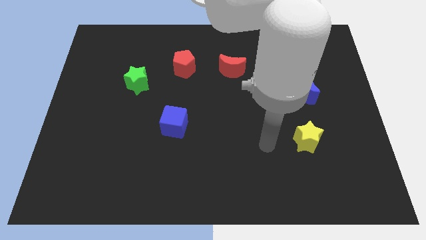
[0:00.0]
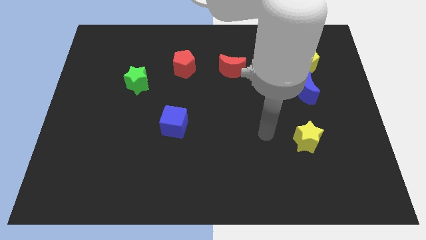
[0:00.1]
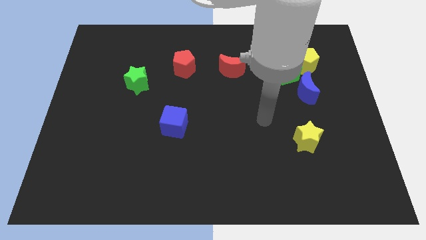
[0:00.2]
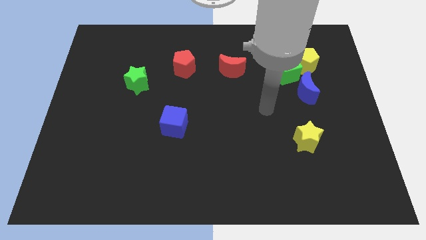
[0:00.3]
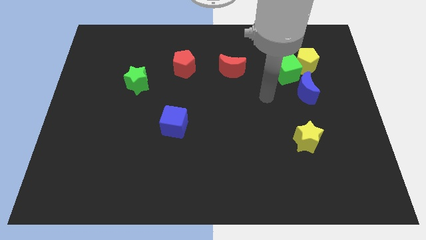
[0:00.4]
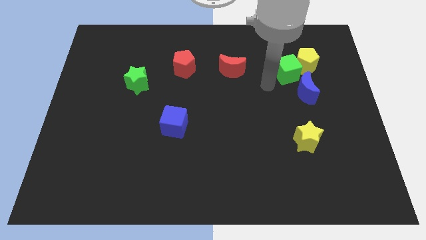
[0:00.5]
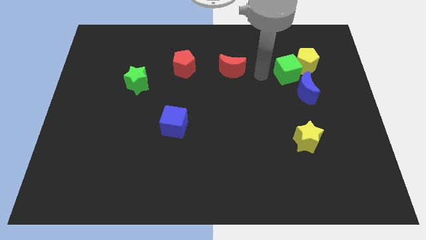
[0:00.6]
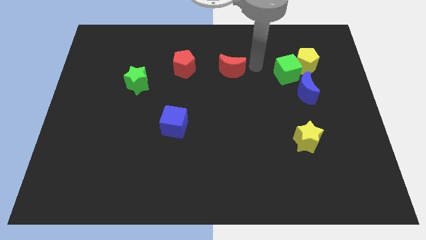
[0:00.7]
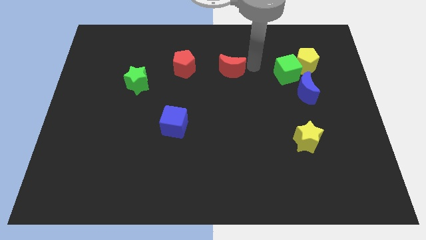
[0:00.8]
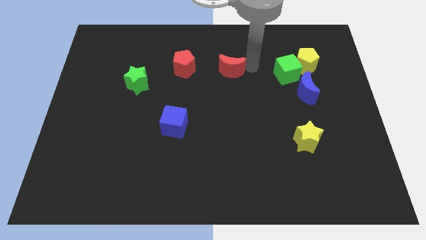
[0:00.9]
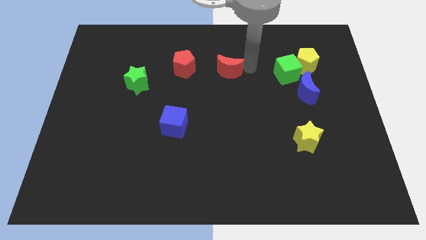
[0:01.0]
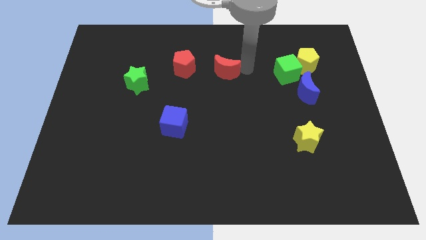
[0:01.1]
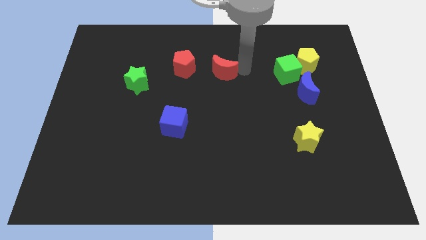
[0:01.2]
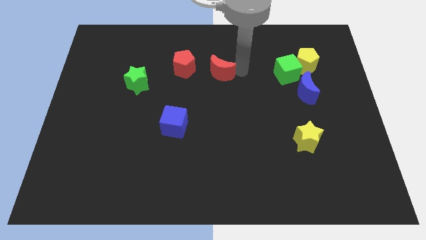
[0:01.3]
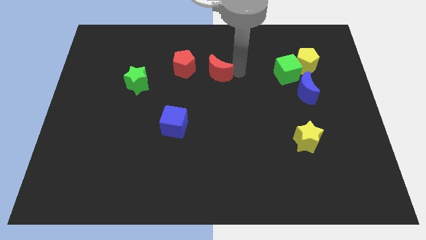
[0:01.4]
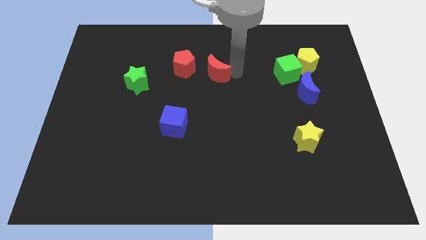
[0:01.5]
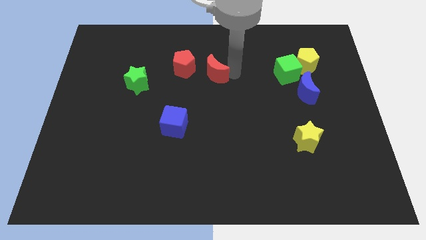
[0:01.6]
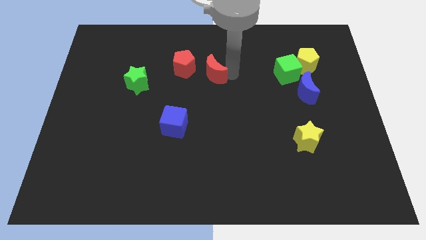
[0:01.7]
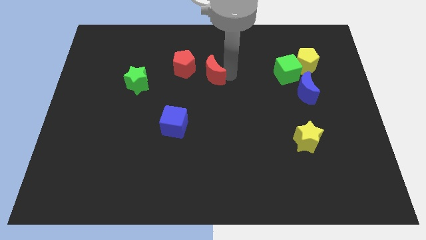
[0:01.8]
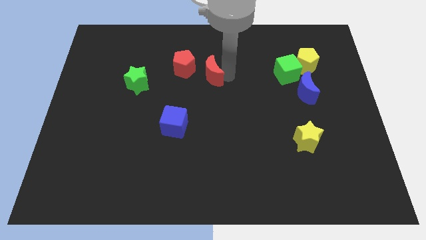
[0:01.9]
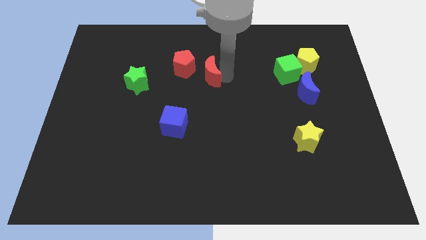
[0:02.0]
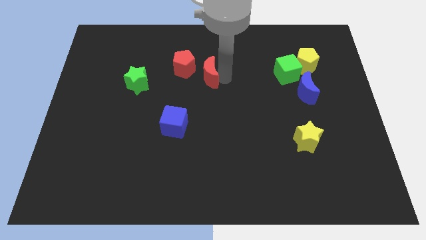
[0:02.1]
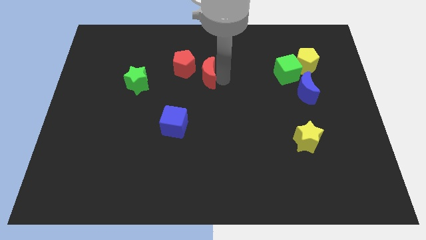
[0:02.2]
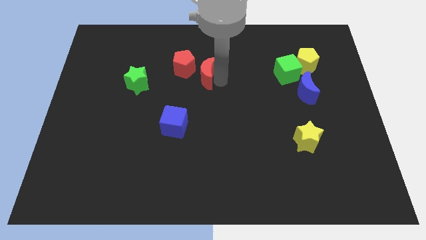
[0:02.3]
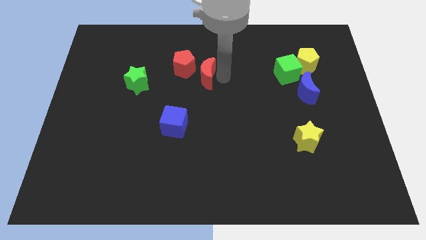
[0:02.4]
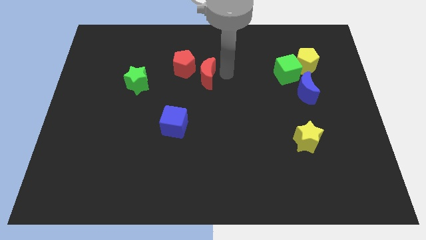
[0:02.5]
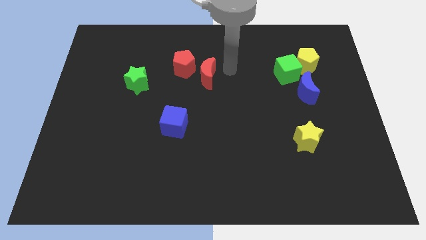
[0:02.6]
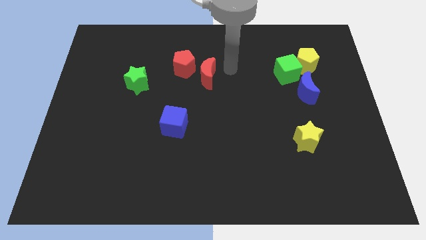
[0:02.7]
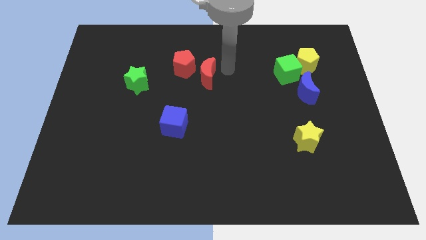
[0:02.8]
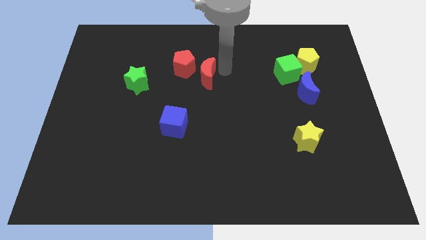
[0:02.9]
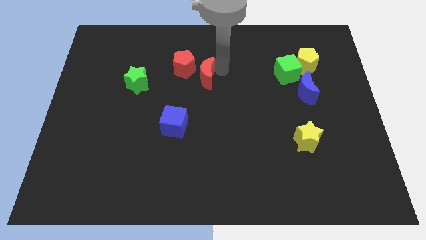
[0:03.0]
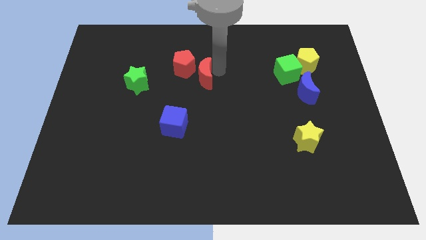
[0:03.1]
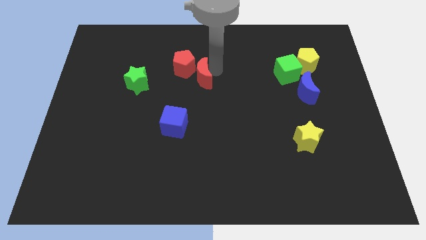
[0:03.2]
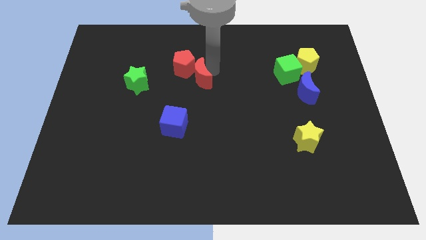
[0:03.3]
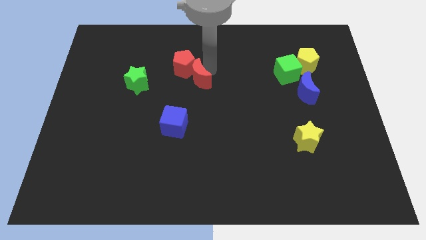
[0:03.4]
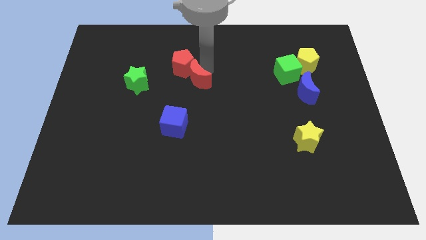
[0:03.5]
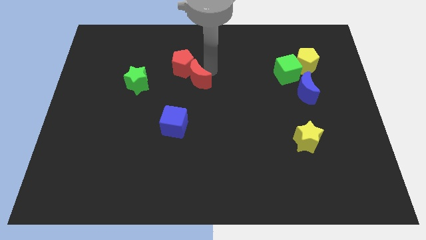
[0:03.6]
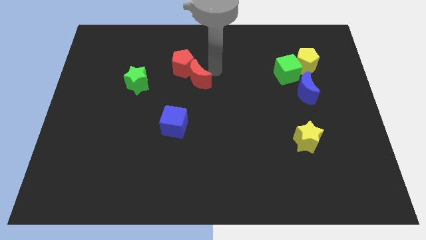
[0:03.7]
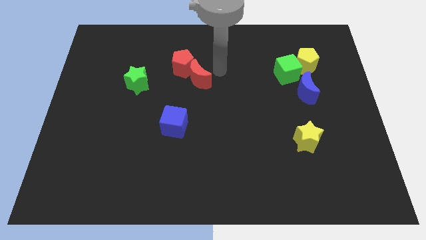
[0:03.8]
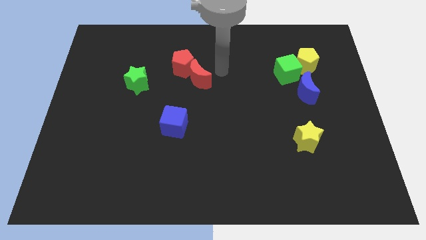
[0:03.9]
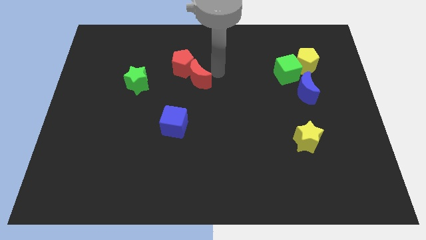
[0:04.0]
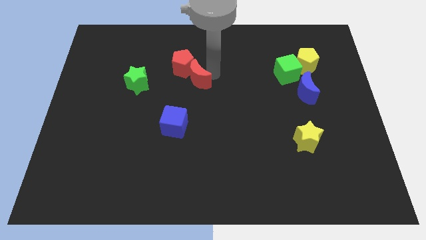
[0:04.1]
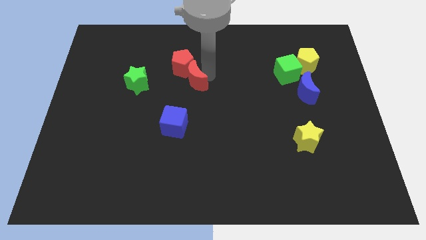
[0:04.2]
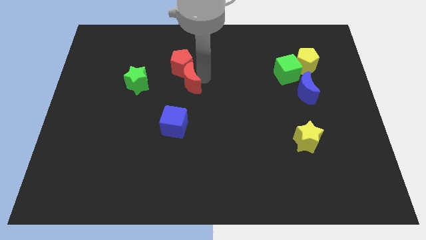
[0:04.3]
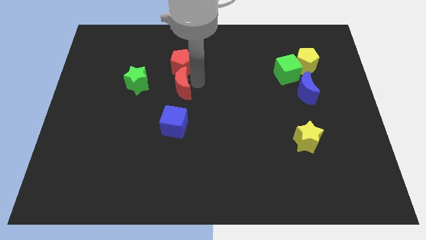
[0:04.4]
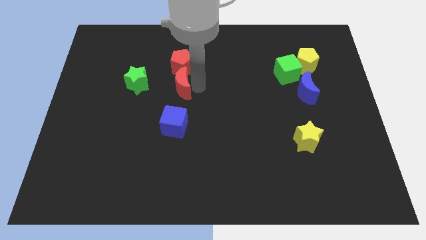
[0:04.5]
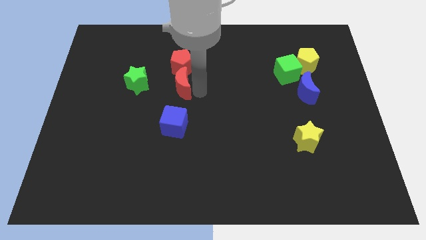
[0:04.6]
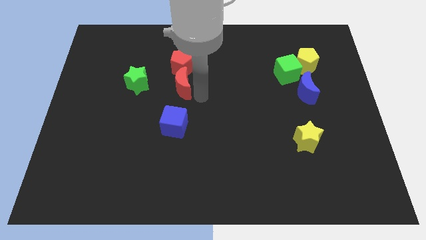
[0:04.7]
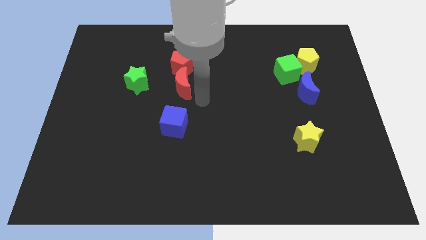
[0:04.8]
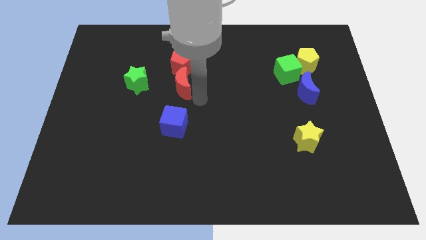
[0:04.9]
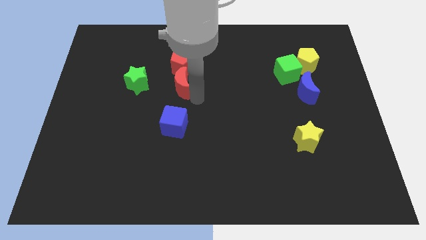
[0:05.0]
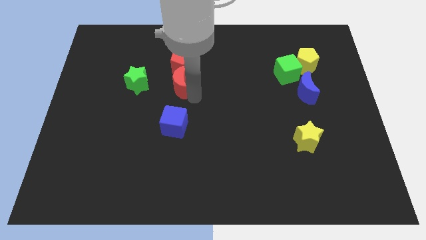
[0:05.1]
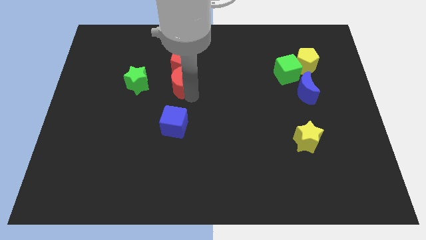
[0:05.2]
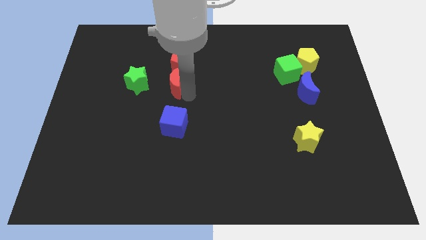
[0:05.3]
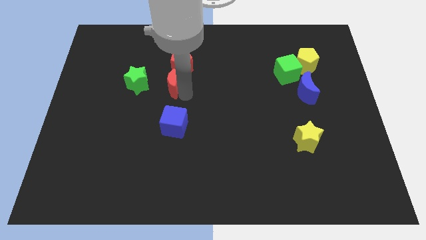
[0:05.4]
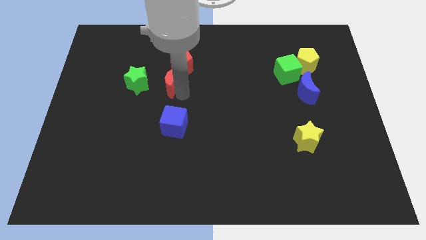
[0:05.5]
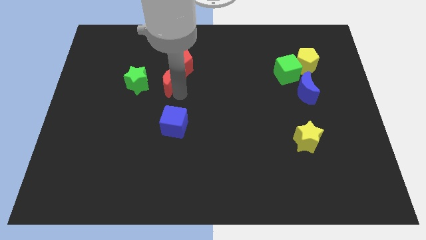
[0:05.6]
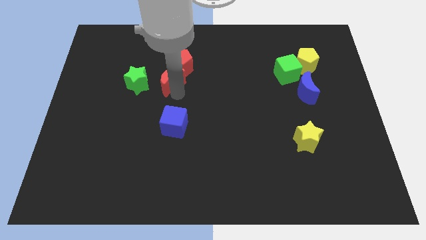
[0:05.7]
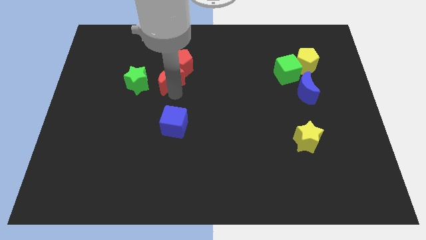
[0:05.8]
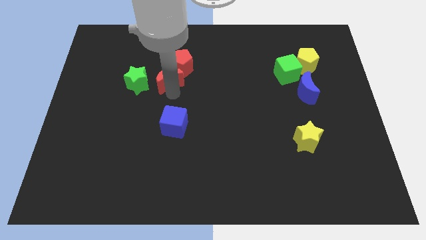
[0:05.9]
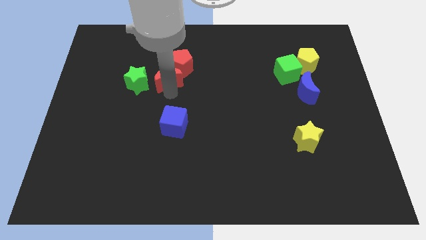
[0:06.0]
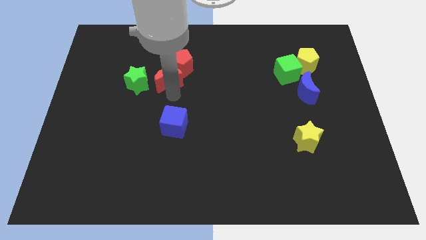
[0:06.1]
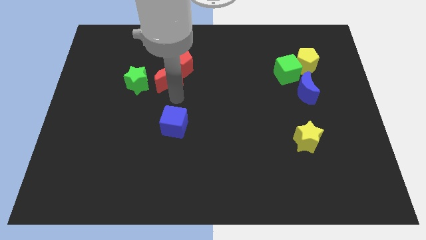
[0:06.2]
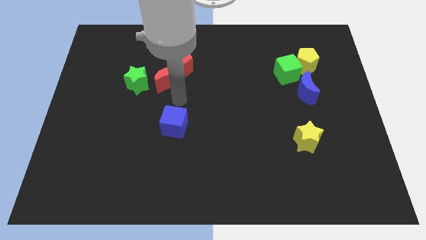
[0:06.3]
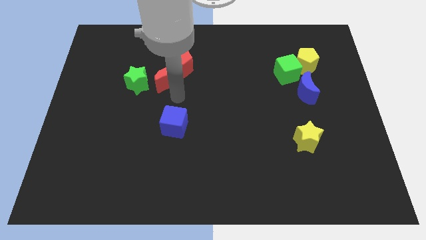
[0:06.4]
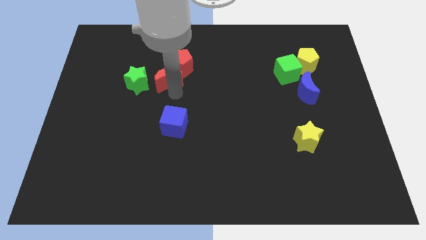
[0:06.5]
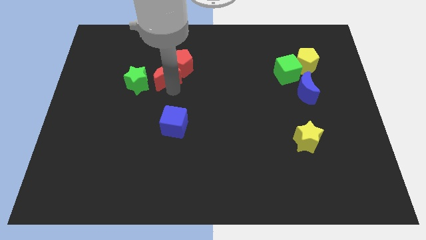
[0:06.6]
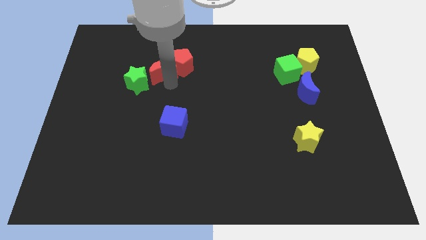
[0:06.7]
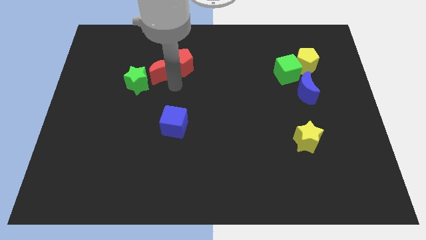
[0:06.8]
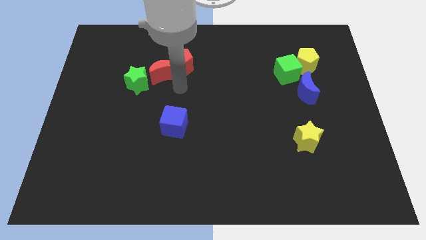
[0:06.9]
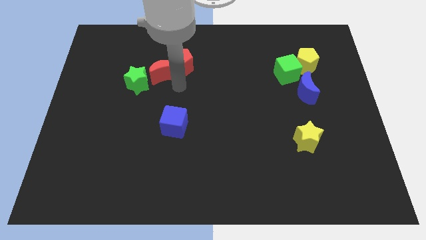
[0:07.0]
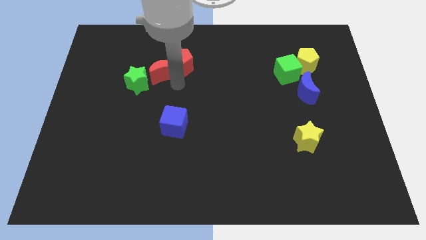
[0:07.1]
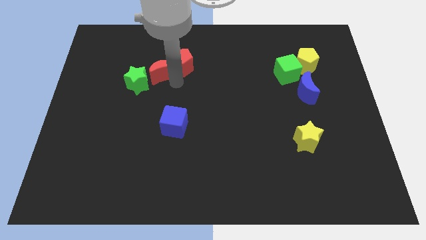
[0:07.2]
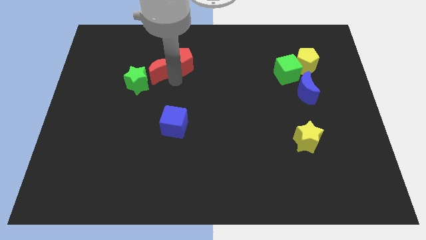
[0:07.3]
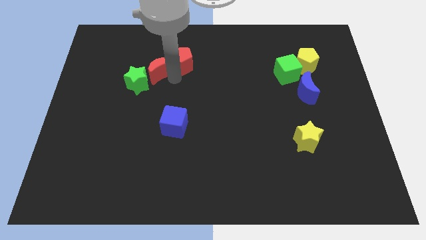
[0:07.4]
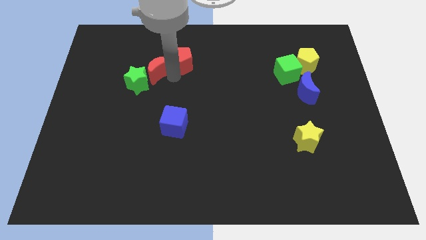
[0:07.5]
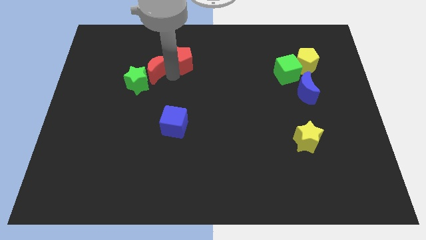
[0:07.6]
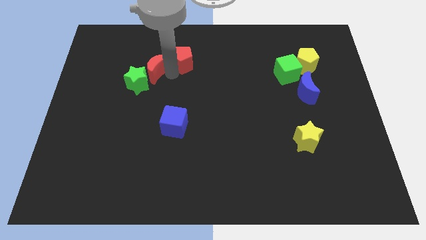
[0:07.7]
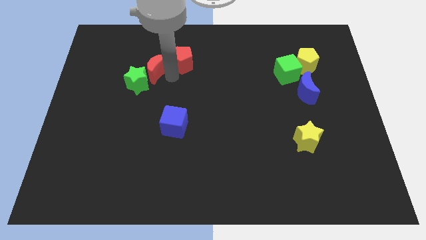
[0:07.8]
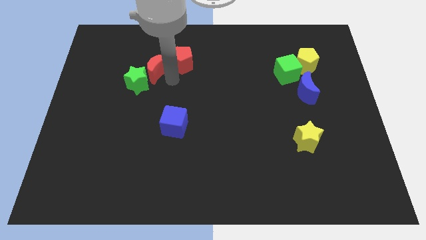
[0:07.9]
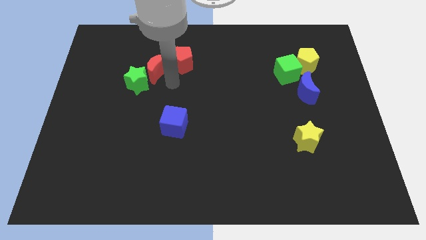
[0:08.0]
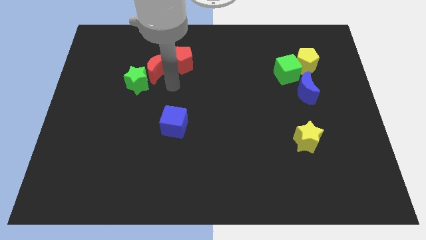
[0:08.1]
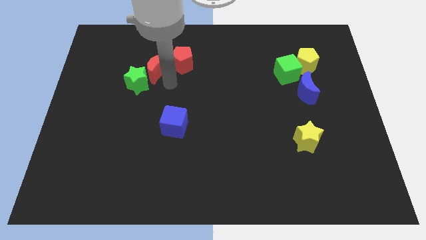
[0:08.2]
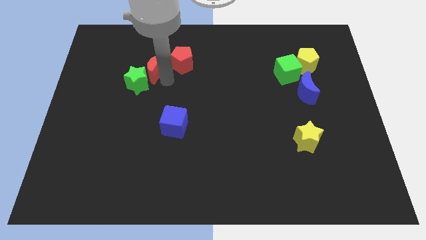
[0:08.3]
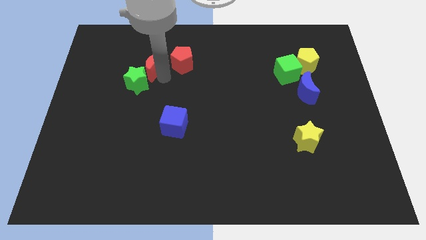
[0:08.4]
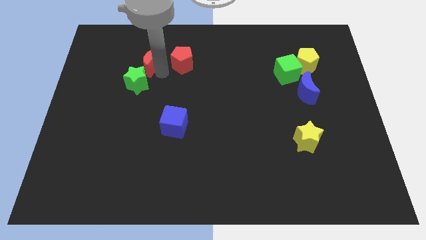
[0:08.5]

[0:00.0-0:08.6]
move the red moon left
